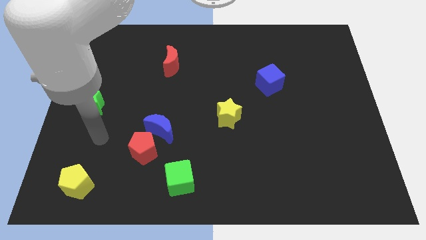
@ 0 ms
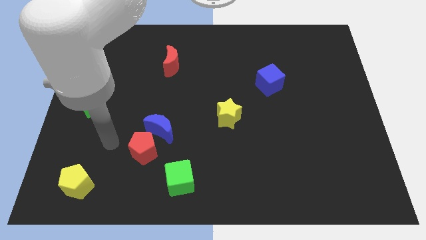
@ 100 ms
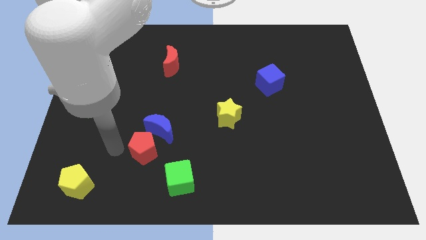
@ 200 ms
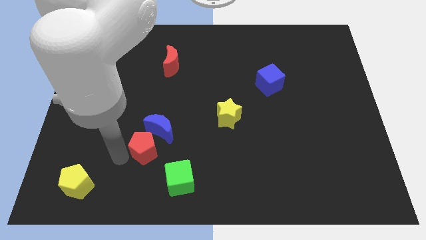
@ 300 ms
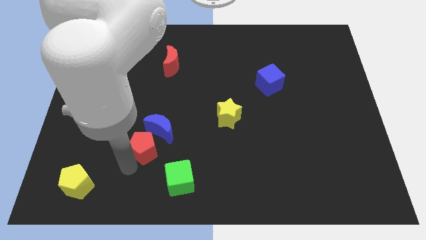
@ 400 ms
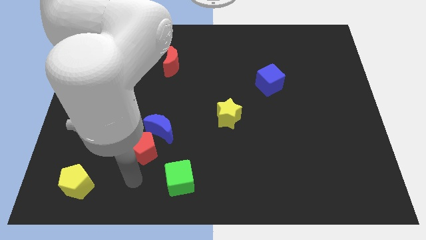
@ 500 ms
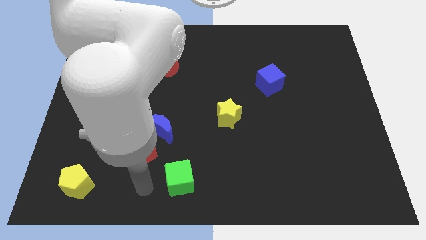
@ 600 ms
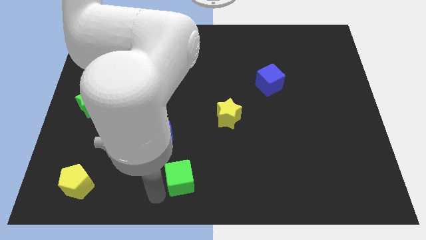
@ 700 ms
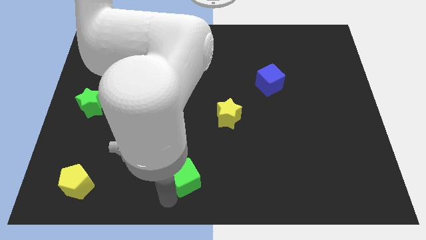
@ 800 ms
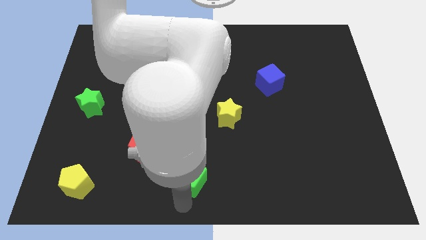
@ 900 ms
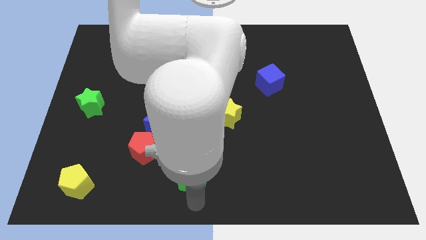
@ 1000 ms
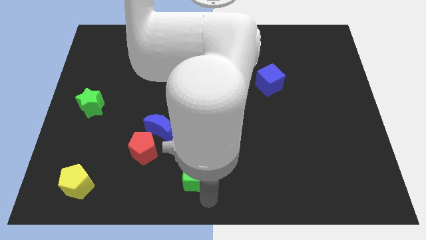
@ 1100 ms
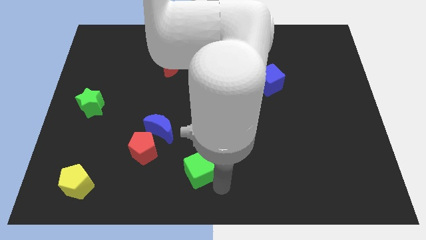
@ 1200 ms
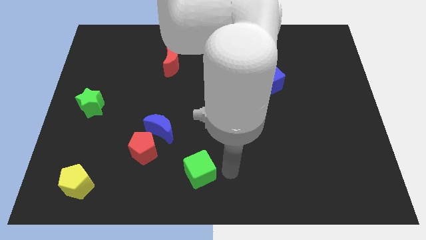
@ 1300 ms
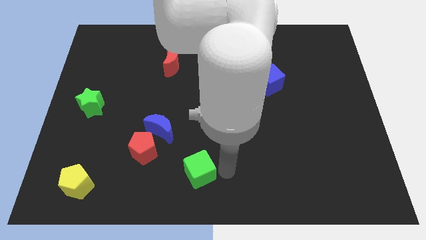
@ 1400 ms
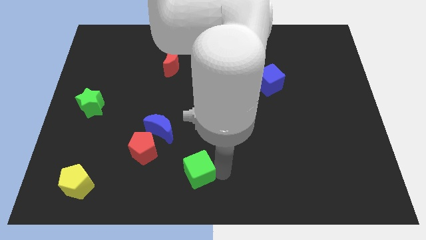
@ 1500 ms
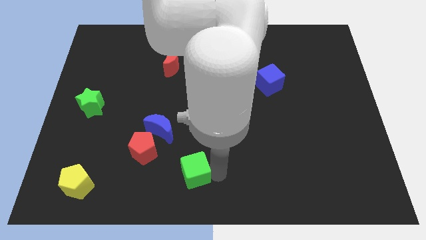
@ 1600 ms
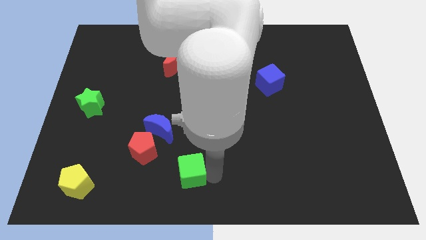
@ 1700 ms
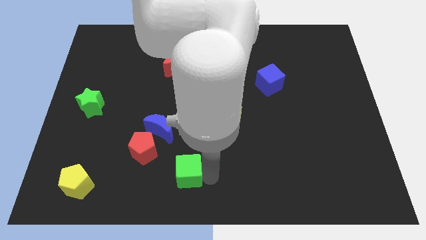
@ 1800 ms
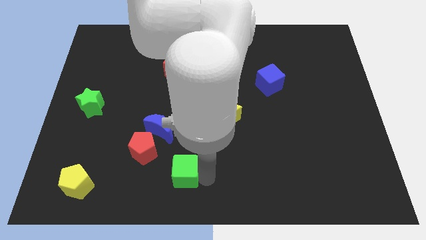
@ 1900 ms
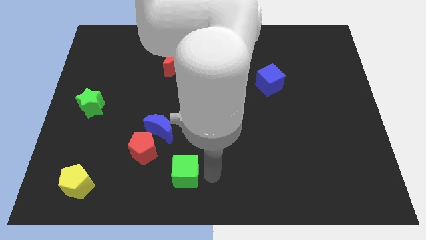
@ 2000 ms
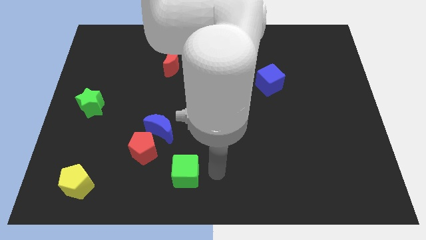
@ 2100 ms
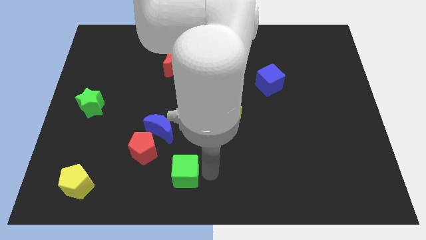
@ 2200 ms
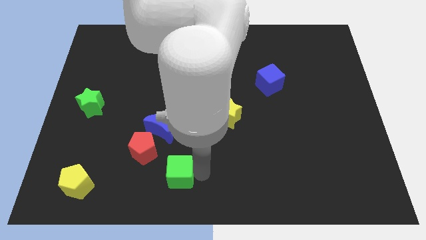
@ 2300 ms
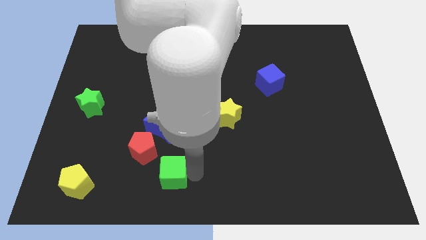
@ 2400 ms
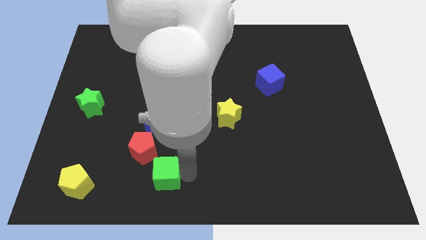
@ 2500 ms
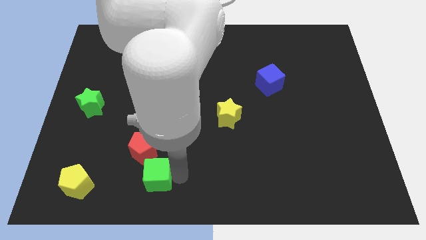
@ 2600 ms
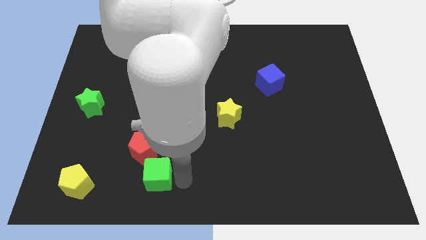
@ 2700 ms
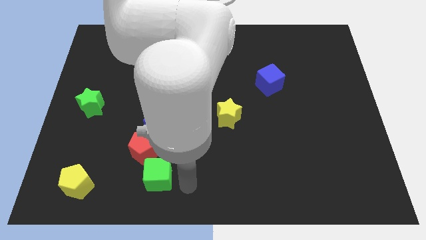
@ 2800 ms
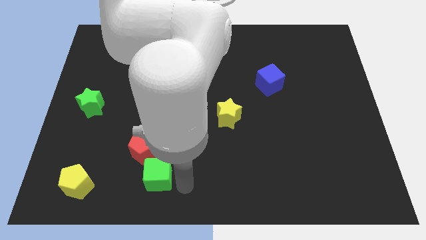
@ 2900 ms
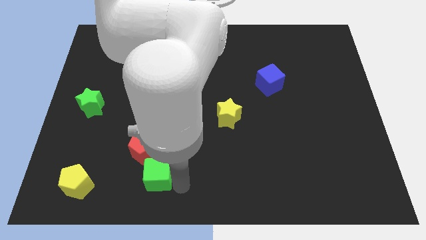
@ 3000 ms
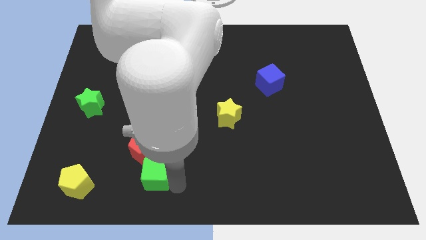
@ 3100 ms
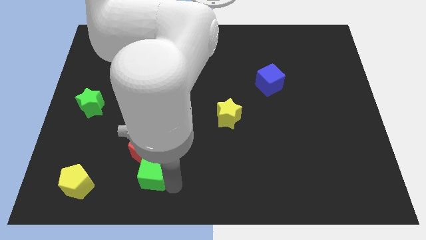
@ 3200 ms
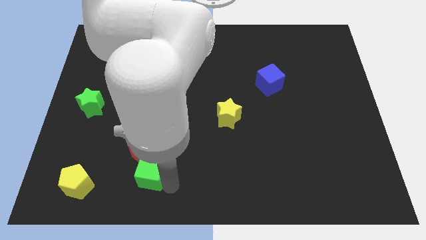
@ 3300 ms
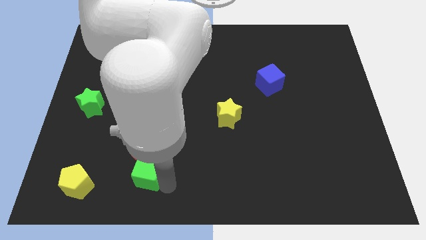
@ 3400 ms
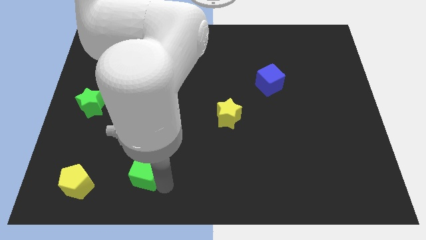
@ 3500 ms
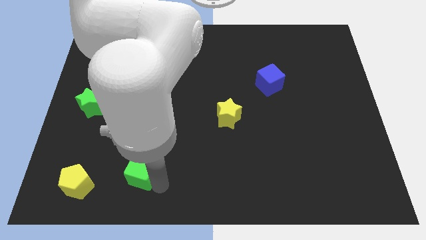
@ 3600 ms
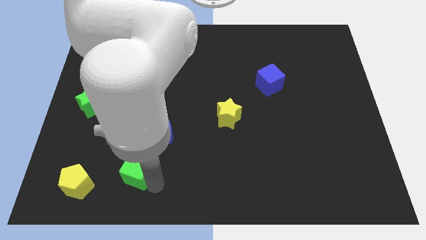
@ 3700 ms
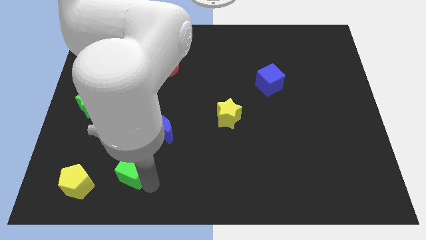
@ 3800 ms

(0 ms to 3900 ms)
slightly slide the green cube up and left

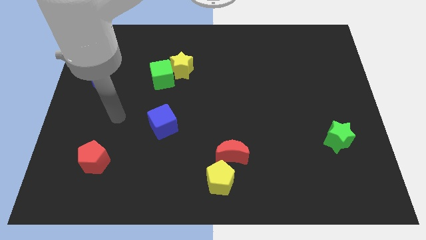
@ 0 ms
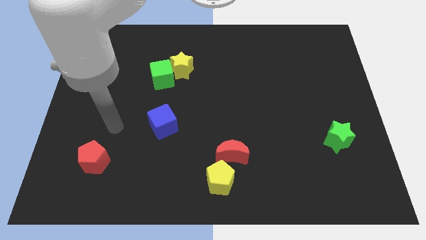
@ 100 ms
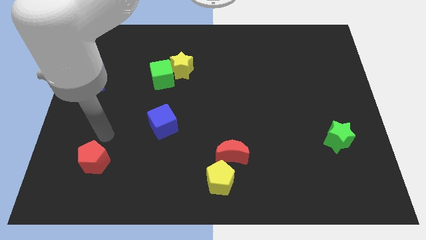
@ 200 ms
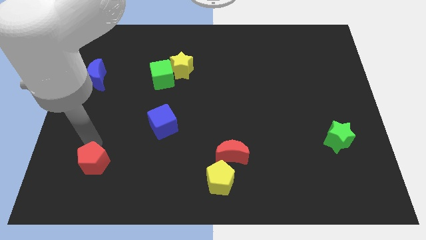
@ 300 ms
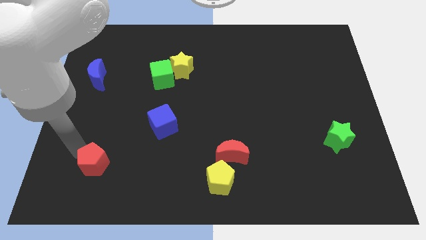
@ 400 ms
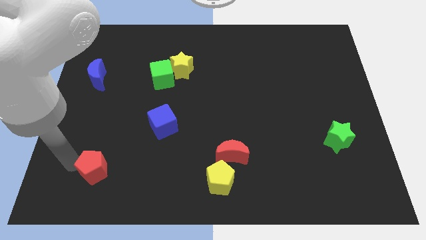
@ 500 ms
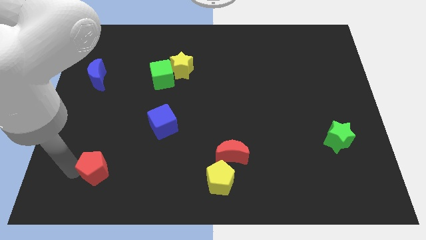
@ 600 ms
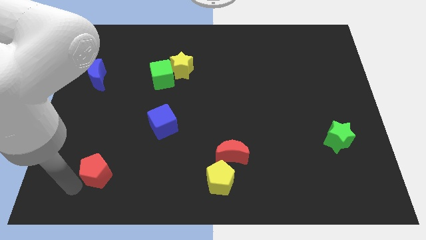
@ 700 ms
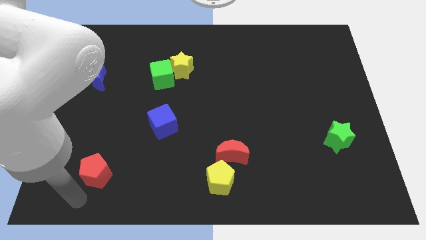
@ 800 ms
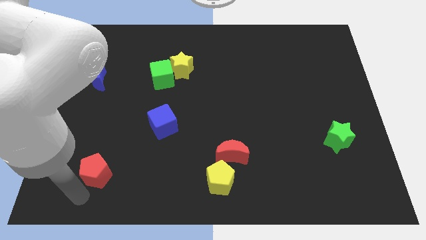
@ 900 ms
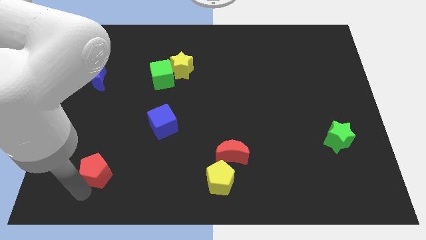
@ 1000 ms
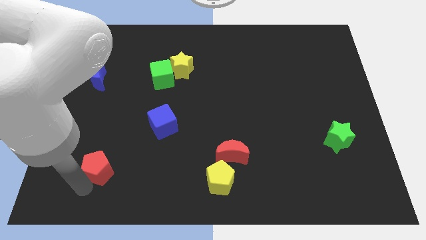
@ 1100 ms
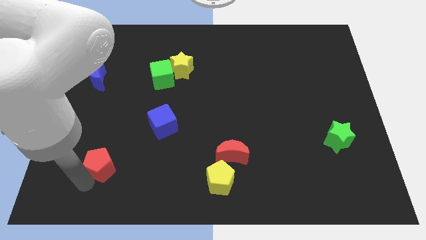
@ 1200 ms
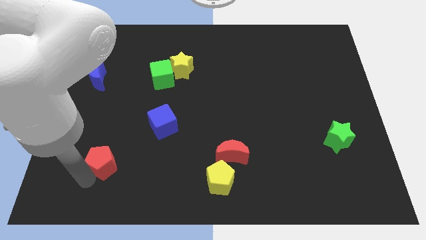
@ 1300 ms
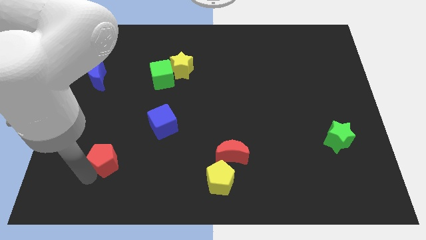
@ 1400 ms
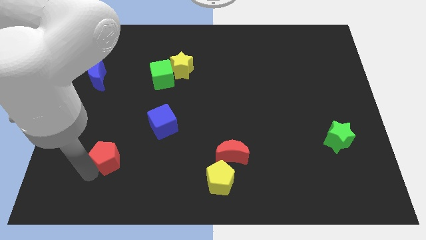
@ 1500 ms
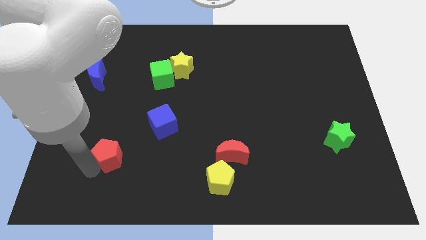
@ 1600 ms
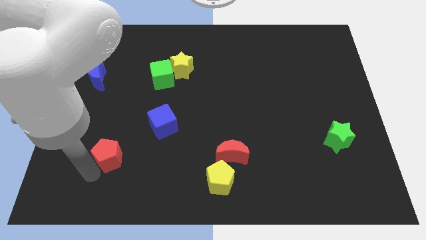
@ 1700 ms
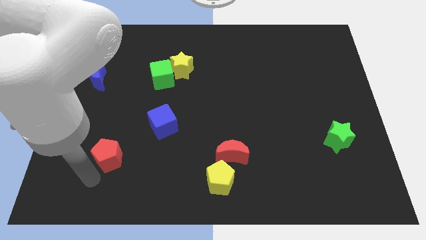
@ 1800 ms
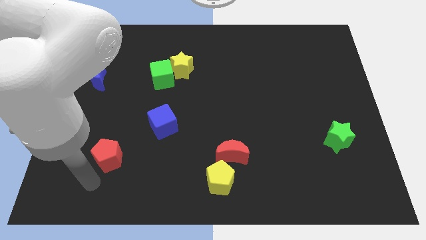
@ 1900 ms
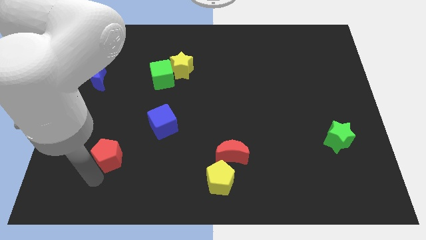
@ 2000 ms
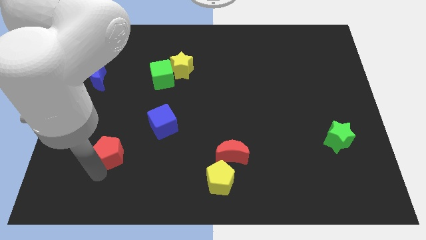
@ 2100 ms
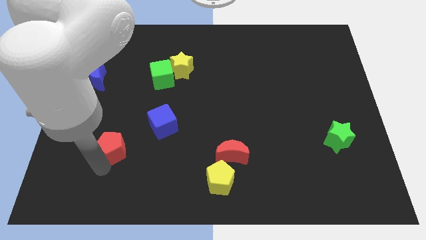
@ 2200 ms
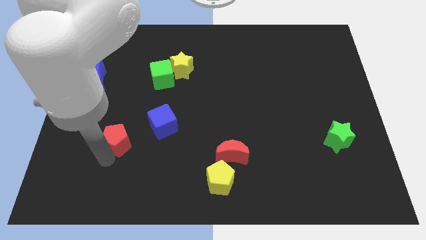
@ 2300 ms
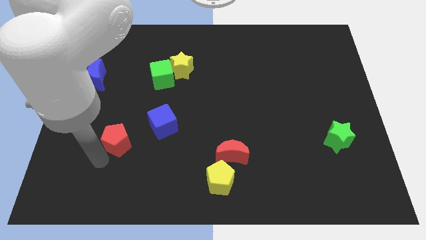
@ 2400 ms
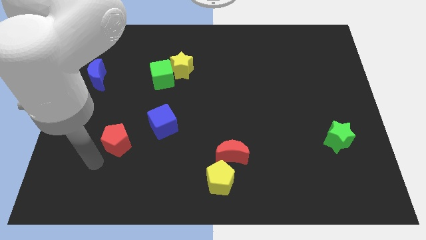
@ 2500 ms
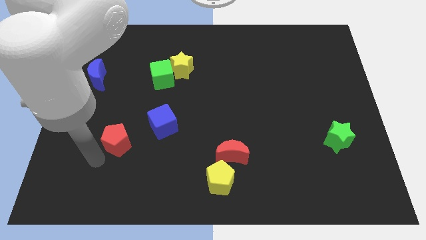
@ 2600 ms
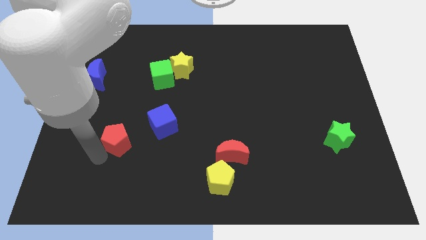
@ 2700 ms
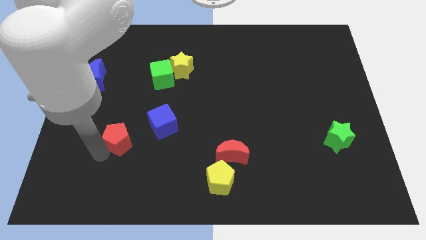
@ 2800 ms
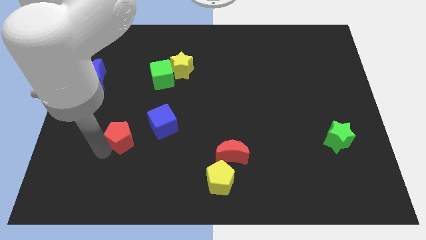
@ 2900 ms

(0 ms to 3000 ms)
slightly push the red pentagon up and to the right

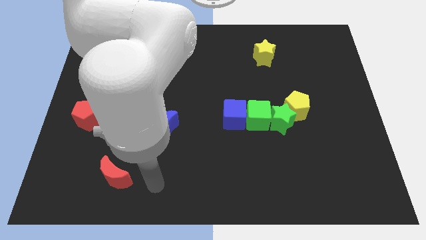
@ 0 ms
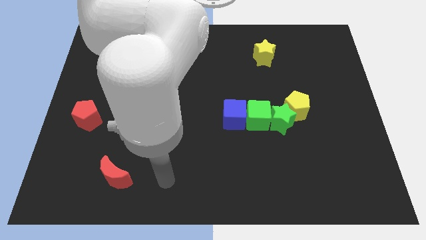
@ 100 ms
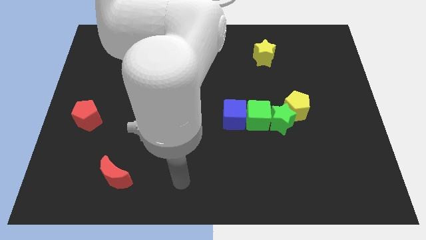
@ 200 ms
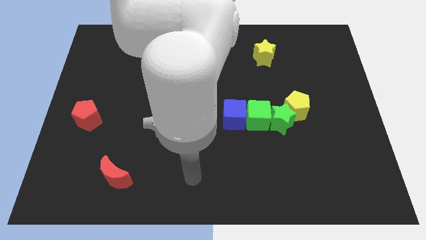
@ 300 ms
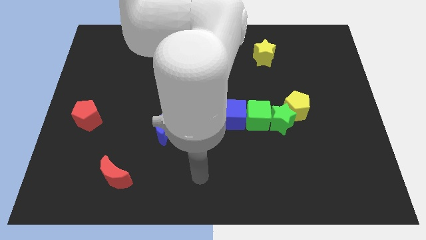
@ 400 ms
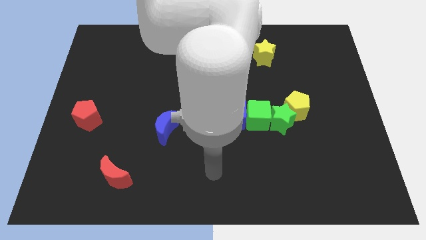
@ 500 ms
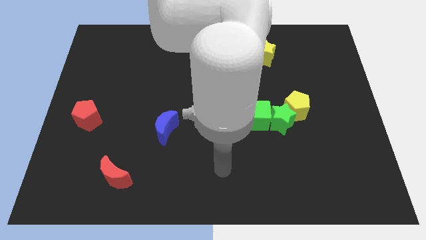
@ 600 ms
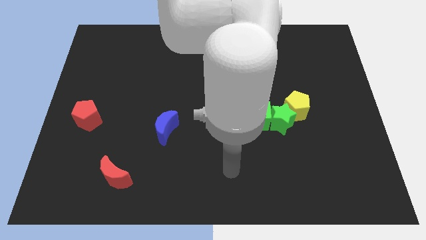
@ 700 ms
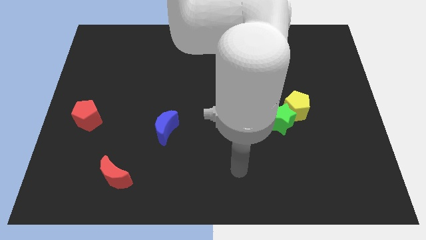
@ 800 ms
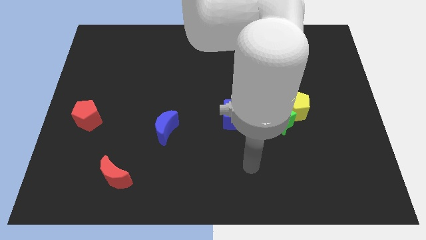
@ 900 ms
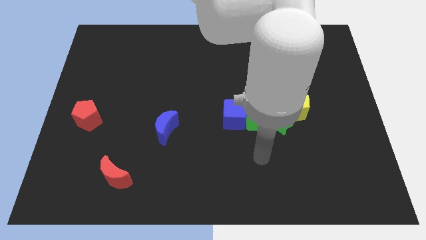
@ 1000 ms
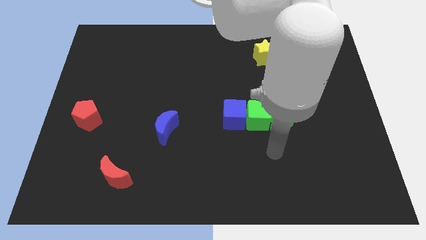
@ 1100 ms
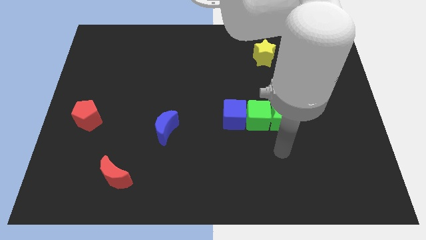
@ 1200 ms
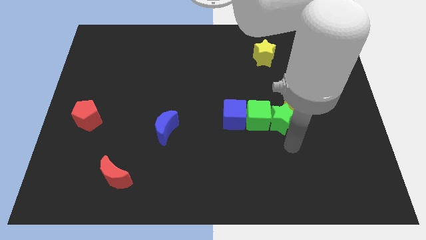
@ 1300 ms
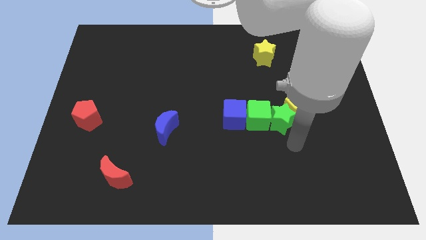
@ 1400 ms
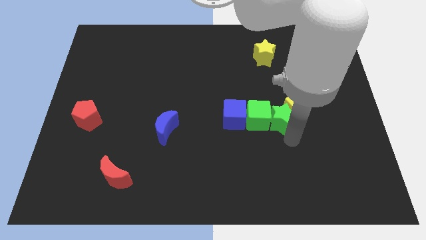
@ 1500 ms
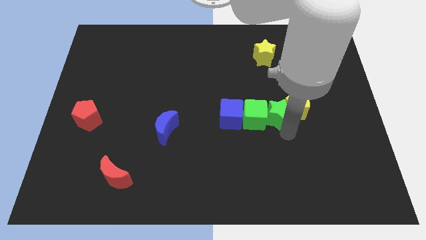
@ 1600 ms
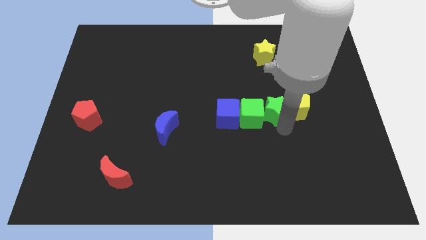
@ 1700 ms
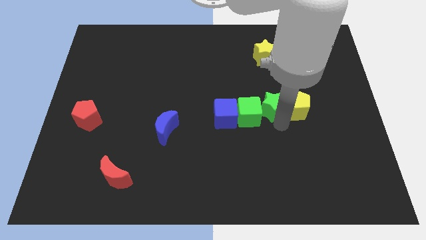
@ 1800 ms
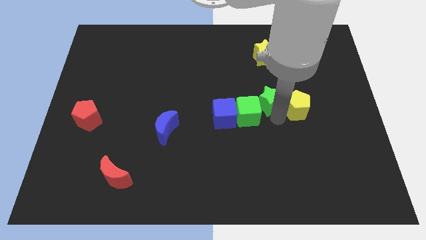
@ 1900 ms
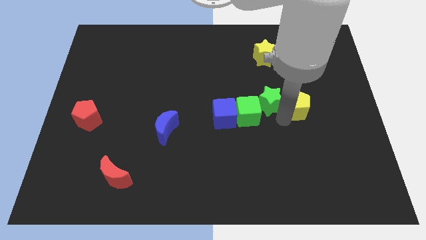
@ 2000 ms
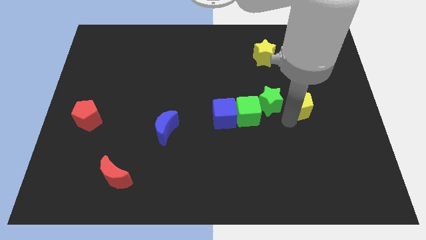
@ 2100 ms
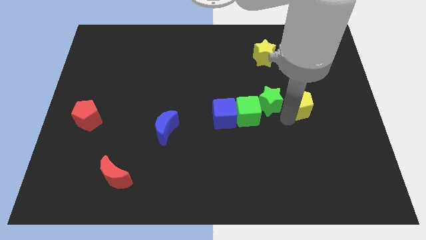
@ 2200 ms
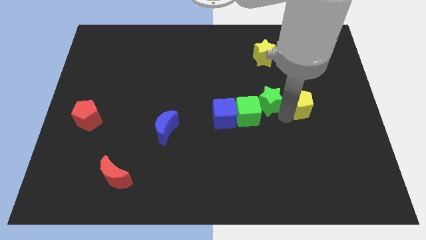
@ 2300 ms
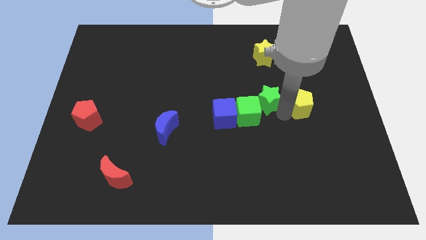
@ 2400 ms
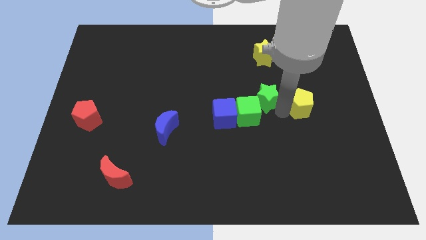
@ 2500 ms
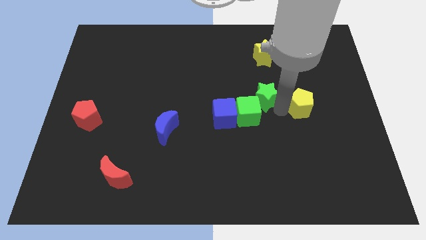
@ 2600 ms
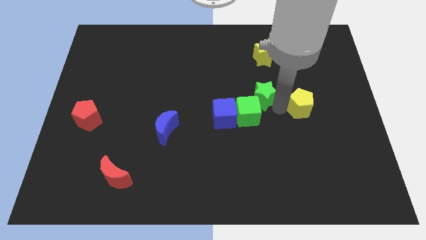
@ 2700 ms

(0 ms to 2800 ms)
slightly move the green star upwards and then left
